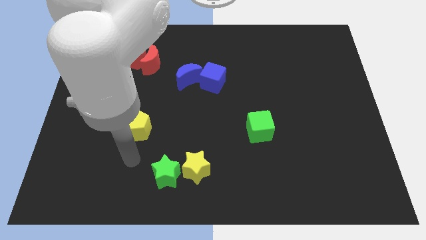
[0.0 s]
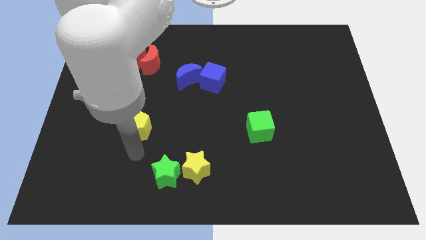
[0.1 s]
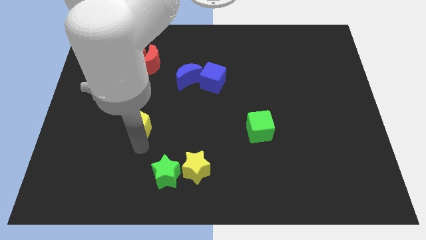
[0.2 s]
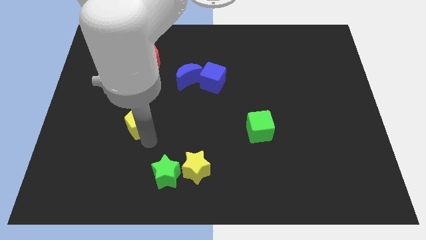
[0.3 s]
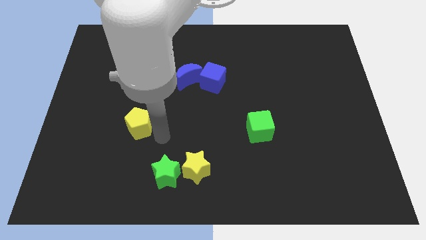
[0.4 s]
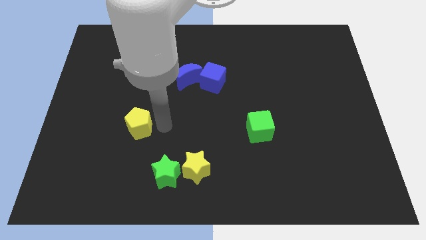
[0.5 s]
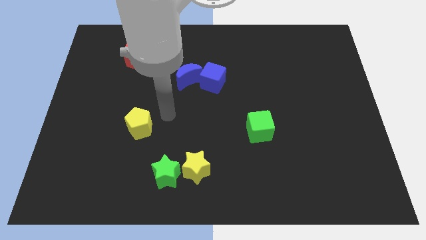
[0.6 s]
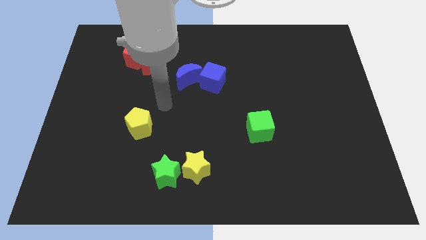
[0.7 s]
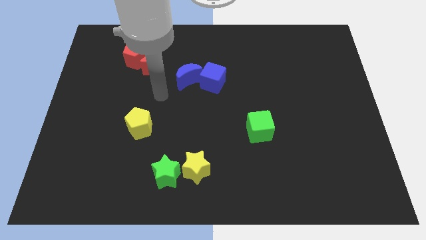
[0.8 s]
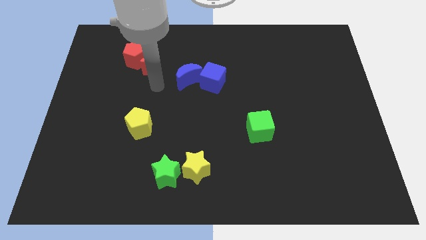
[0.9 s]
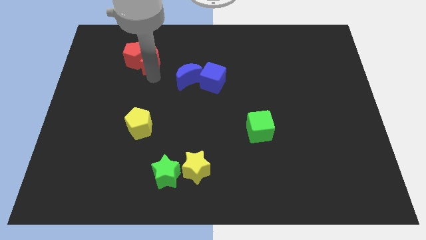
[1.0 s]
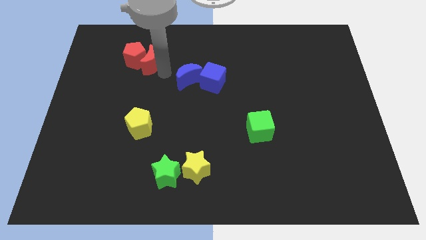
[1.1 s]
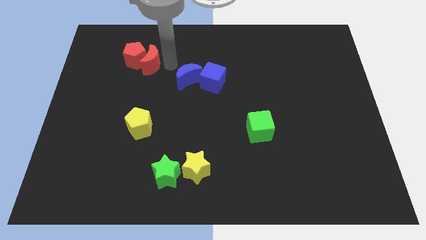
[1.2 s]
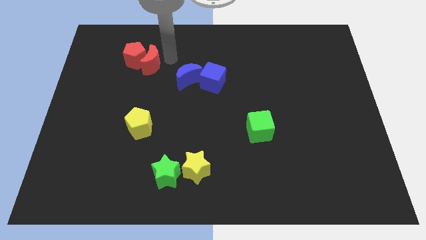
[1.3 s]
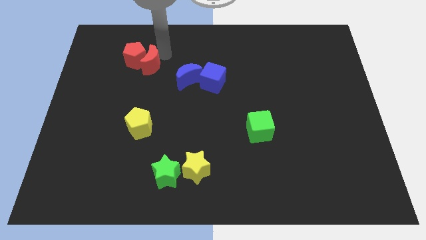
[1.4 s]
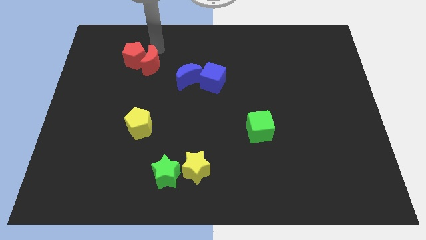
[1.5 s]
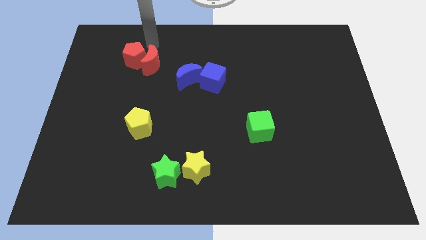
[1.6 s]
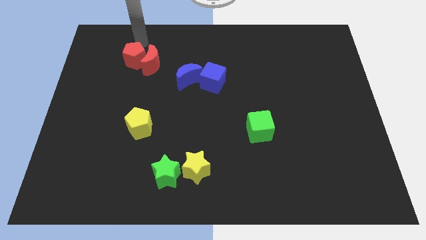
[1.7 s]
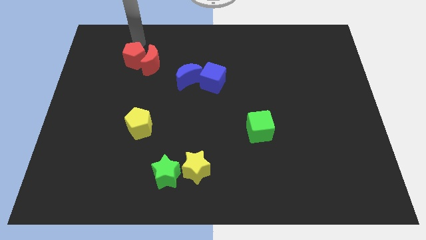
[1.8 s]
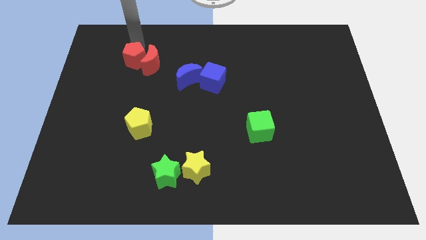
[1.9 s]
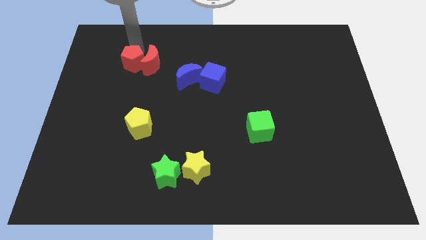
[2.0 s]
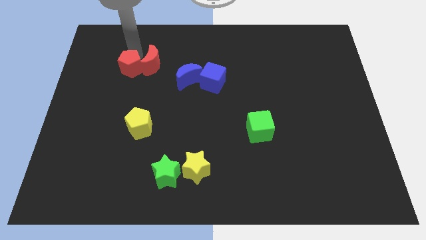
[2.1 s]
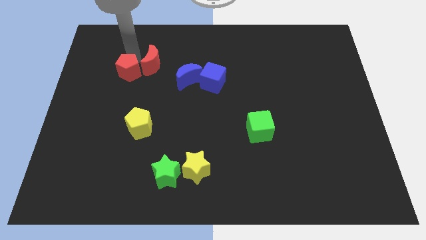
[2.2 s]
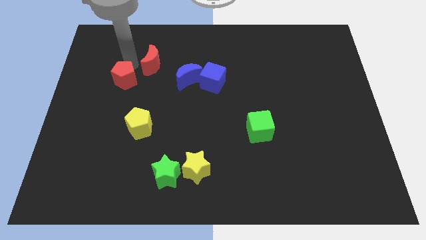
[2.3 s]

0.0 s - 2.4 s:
slightly move the red pentagon downwards

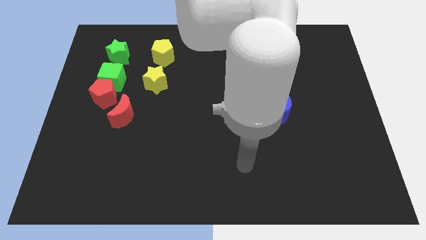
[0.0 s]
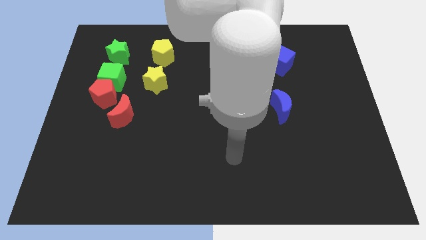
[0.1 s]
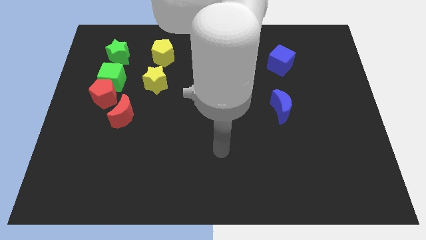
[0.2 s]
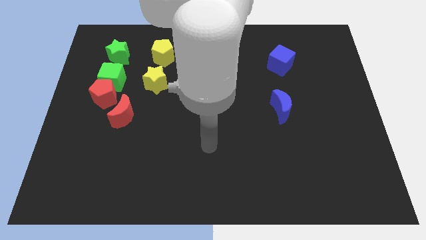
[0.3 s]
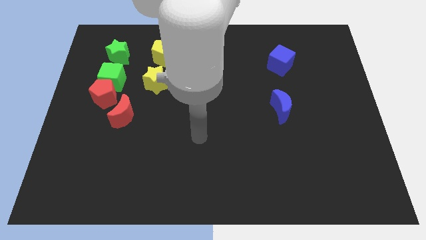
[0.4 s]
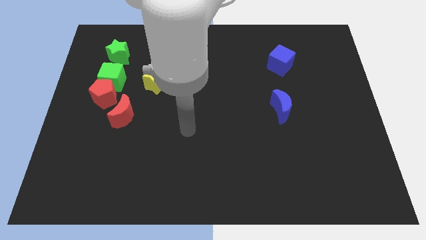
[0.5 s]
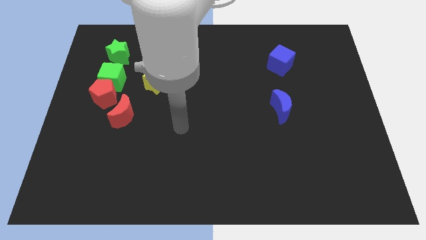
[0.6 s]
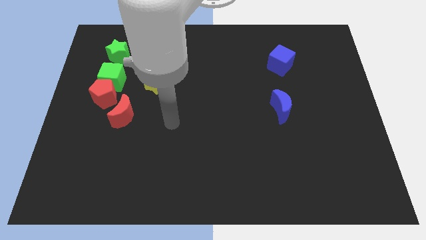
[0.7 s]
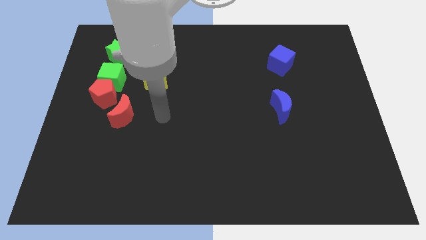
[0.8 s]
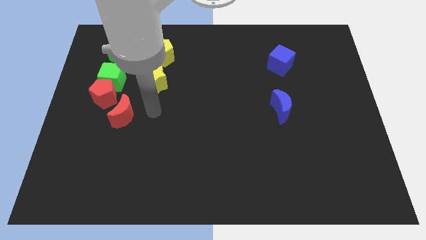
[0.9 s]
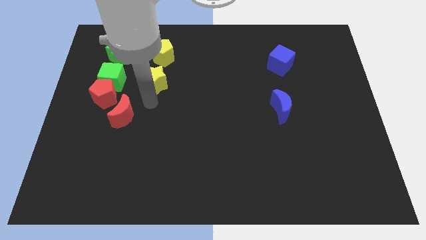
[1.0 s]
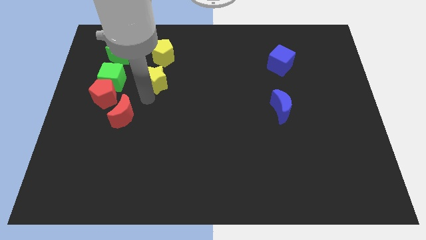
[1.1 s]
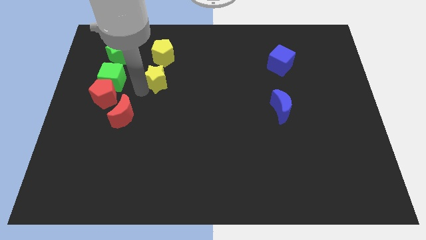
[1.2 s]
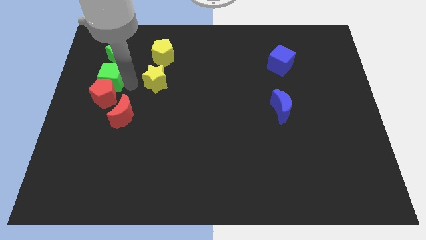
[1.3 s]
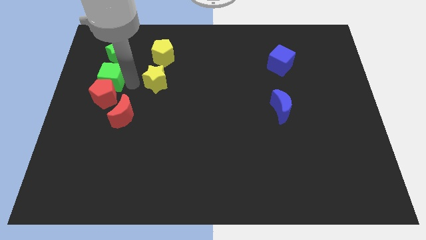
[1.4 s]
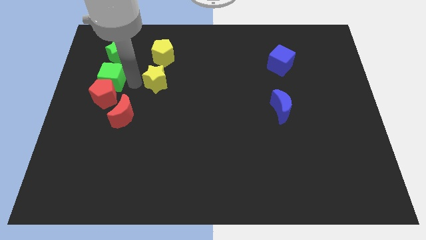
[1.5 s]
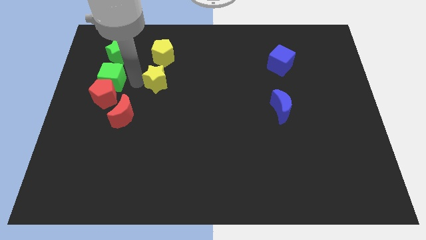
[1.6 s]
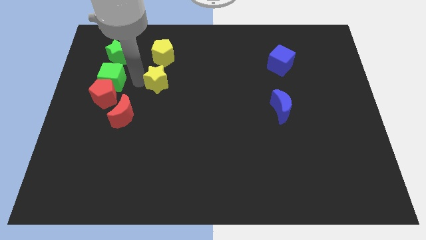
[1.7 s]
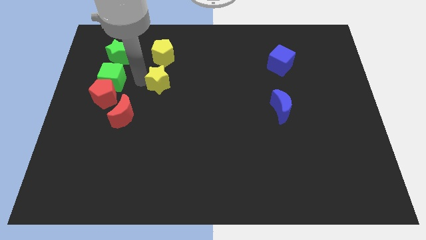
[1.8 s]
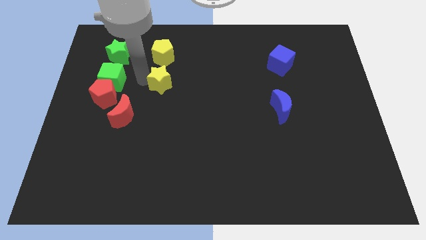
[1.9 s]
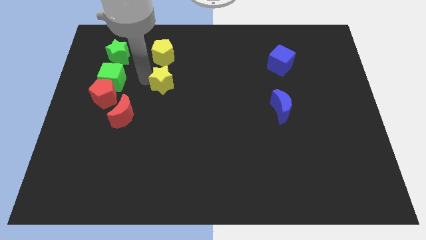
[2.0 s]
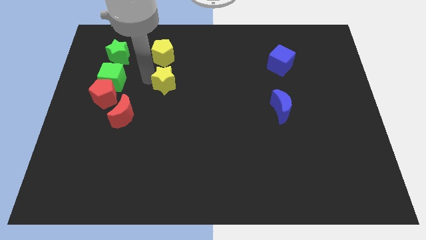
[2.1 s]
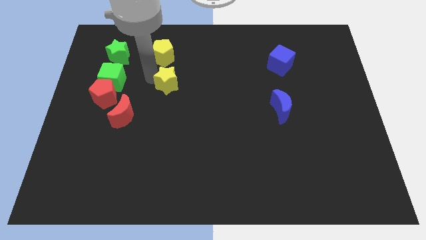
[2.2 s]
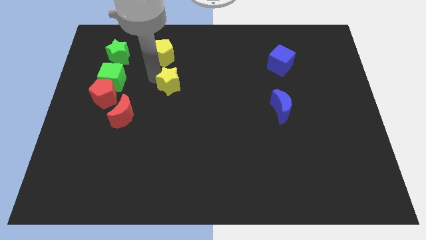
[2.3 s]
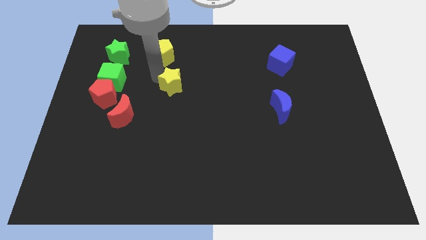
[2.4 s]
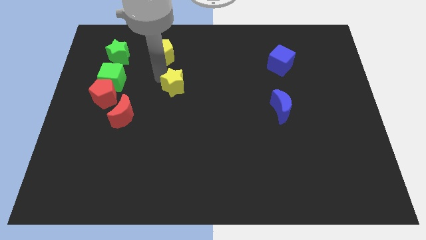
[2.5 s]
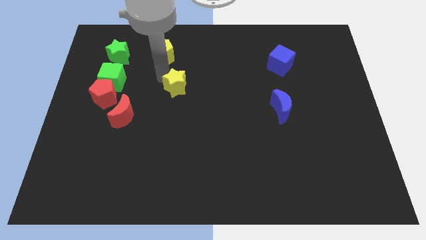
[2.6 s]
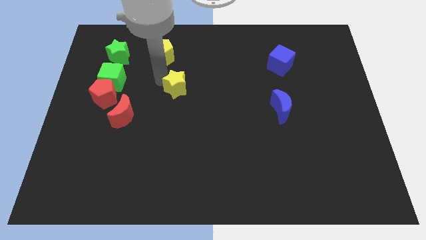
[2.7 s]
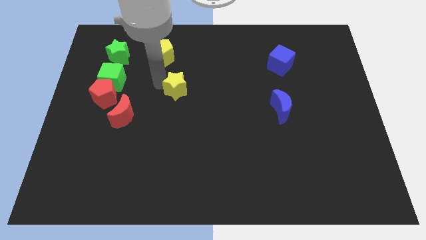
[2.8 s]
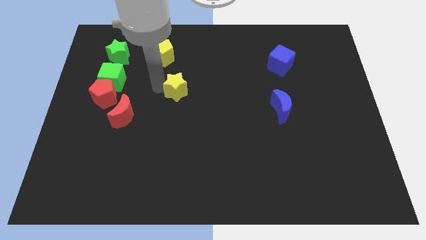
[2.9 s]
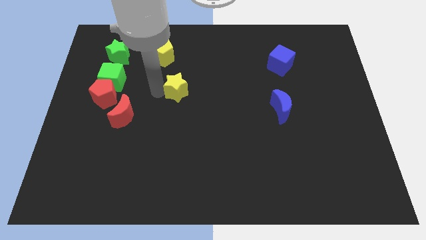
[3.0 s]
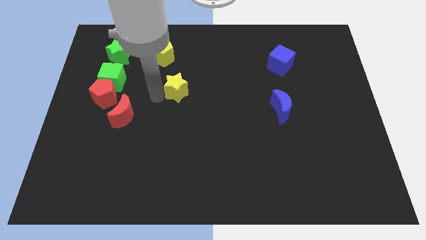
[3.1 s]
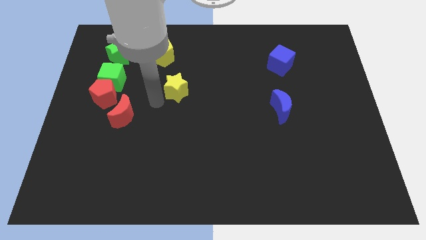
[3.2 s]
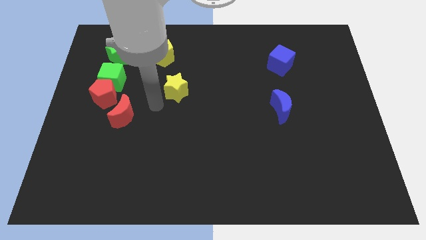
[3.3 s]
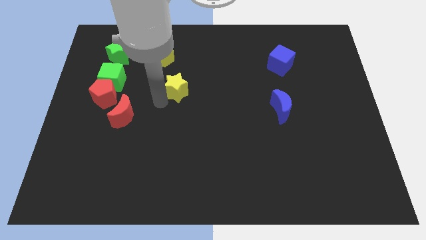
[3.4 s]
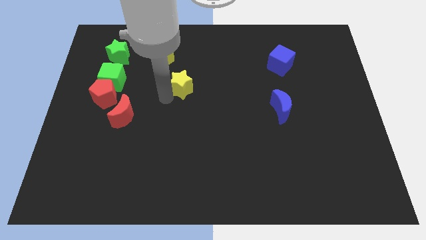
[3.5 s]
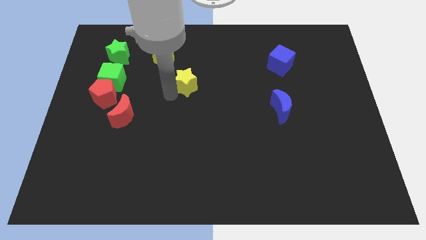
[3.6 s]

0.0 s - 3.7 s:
push the yellow star to the right a little

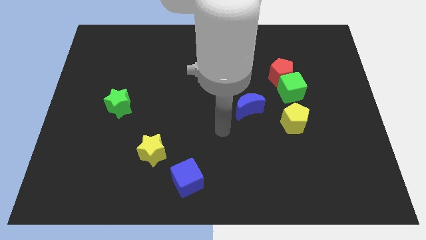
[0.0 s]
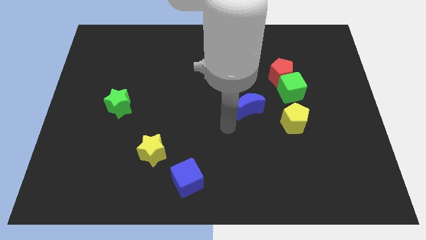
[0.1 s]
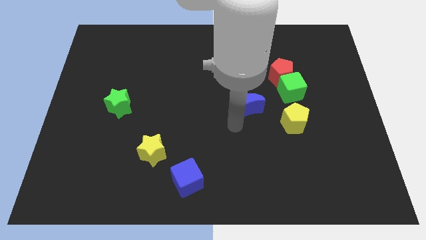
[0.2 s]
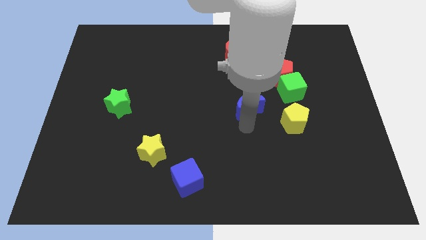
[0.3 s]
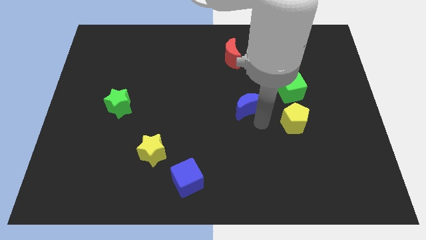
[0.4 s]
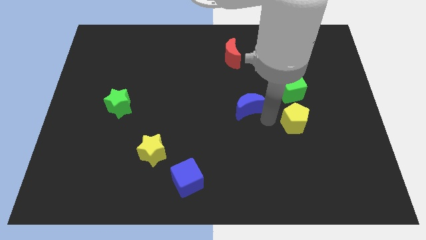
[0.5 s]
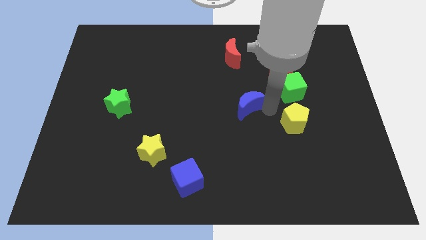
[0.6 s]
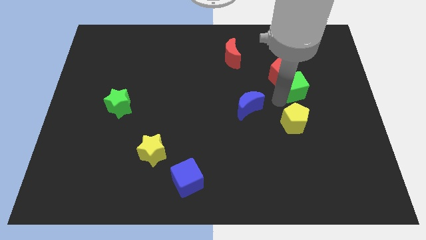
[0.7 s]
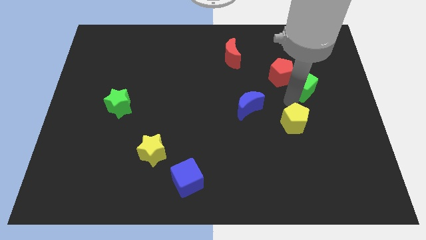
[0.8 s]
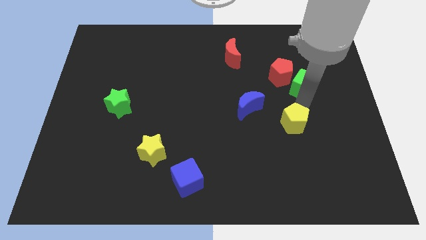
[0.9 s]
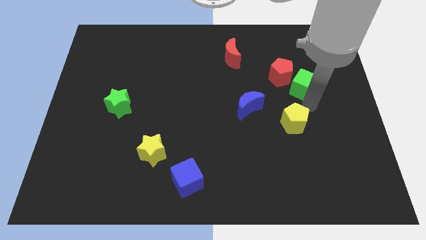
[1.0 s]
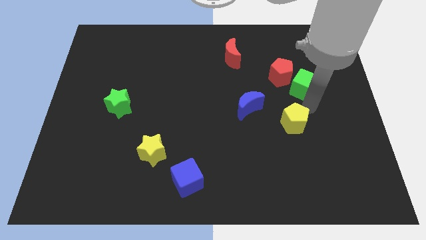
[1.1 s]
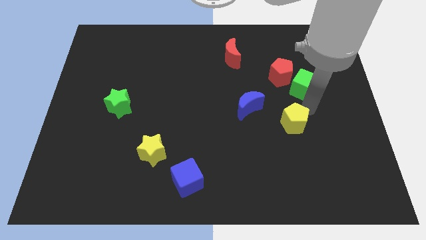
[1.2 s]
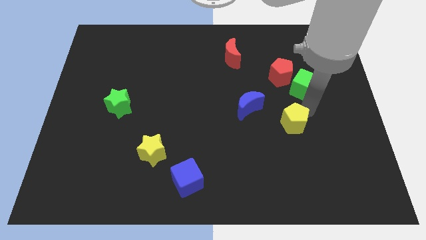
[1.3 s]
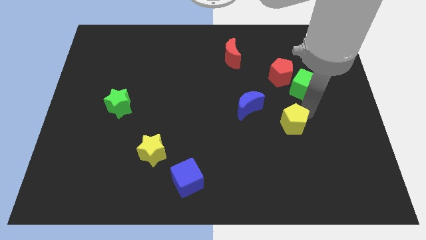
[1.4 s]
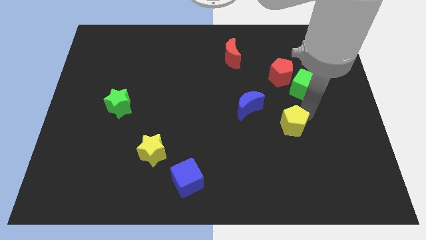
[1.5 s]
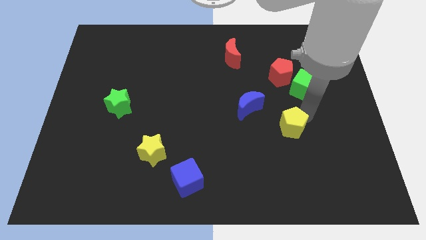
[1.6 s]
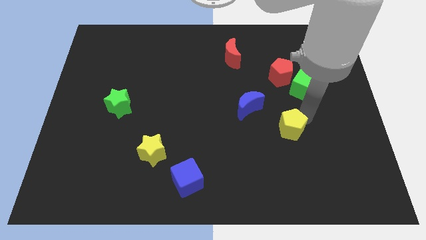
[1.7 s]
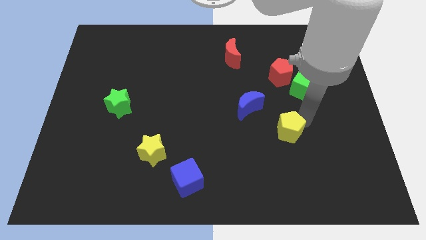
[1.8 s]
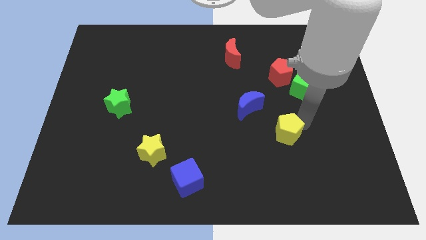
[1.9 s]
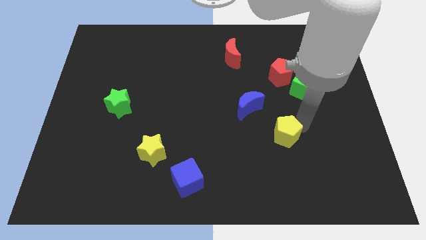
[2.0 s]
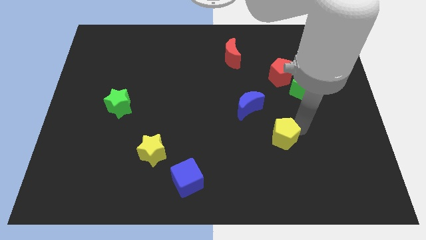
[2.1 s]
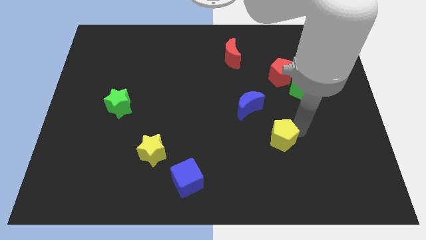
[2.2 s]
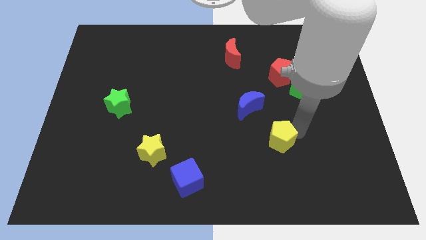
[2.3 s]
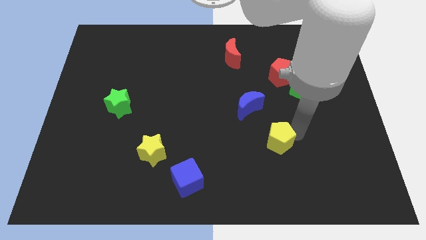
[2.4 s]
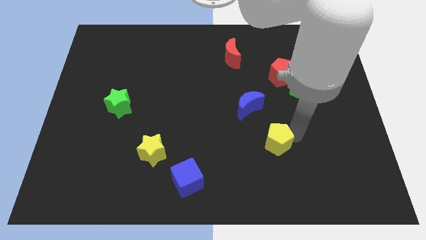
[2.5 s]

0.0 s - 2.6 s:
slightly move the yellow pentagon diagonally downwards and to the left
